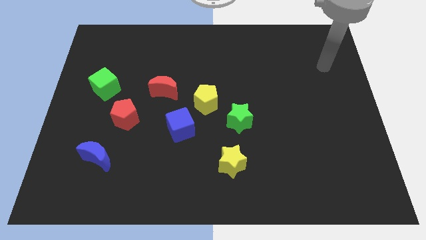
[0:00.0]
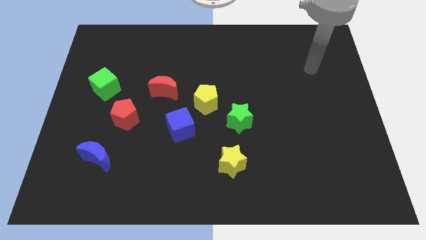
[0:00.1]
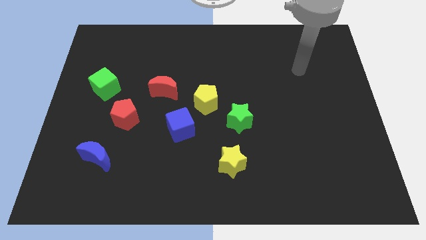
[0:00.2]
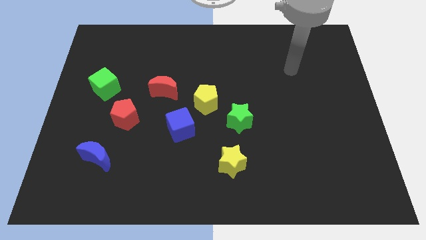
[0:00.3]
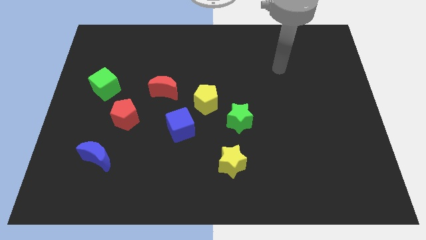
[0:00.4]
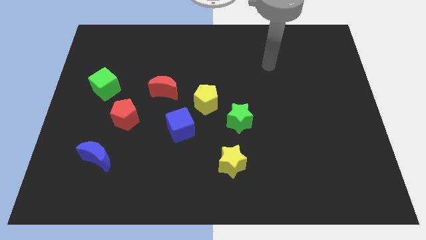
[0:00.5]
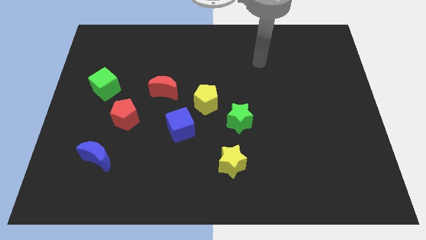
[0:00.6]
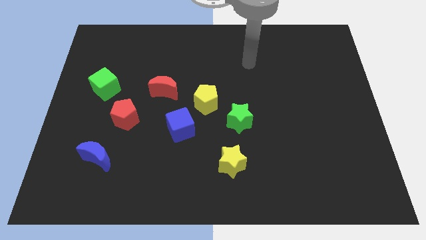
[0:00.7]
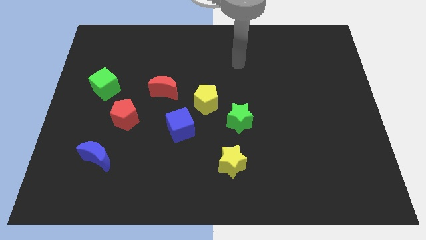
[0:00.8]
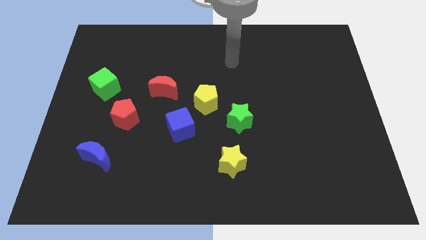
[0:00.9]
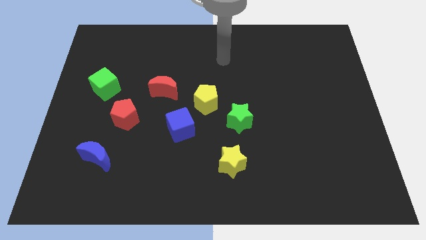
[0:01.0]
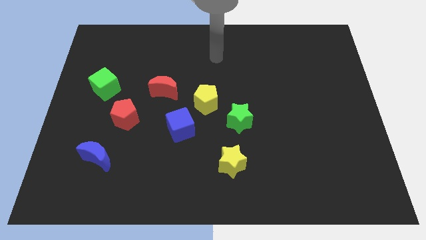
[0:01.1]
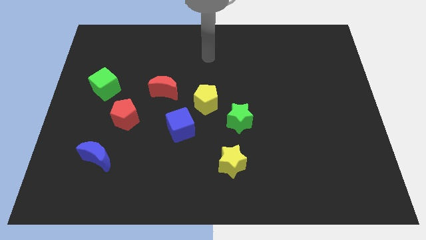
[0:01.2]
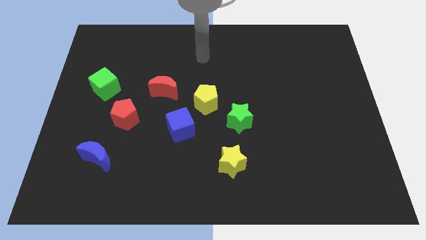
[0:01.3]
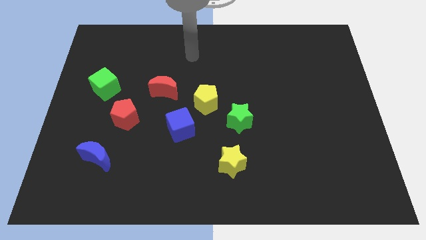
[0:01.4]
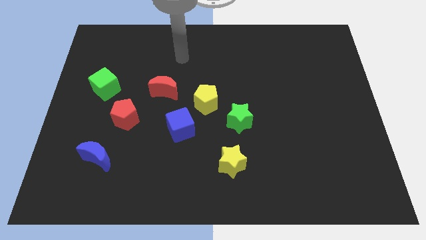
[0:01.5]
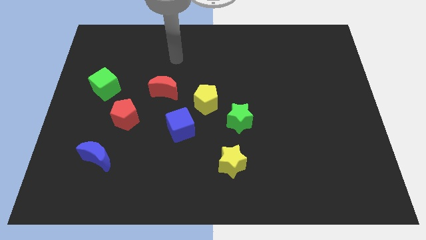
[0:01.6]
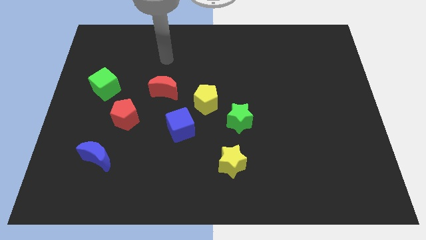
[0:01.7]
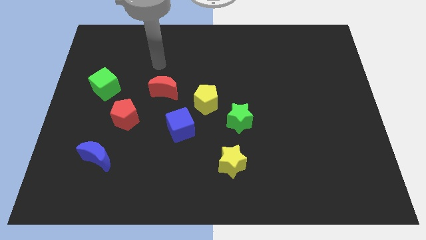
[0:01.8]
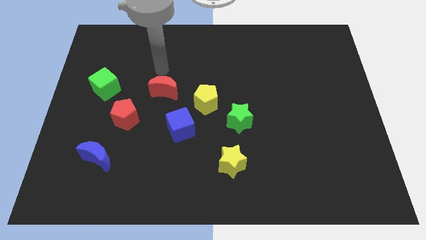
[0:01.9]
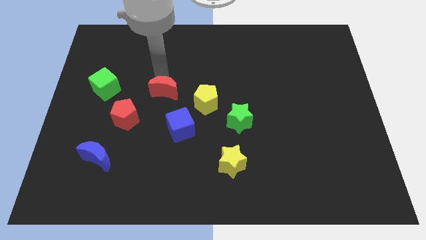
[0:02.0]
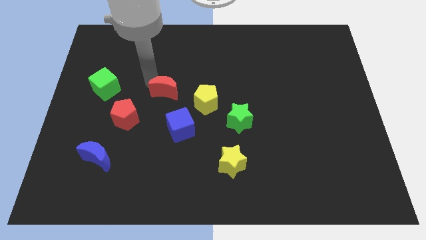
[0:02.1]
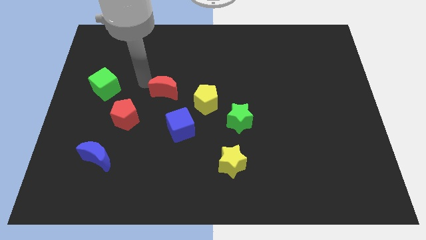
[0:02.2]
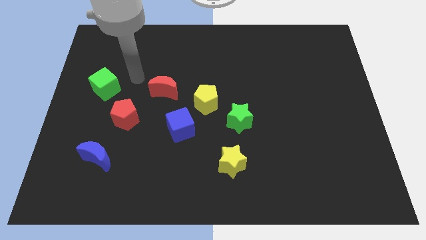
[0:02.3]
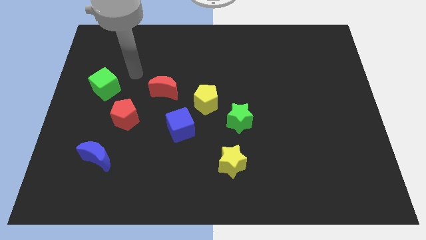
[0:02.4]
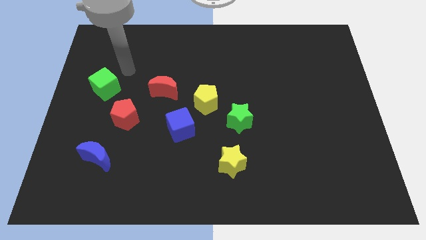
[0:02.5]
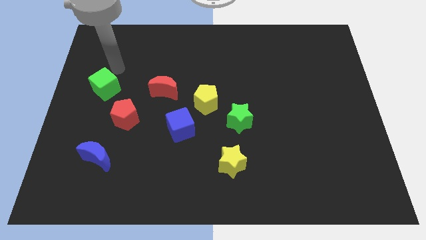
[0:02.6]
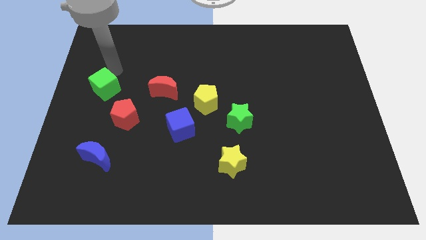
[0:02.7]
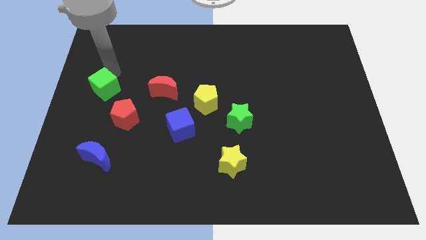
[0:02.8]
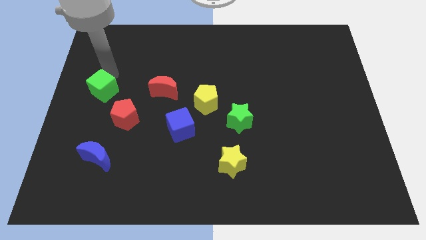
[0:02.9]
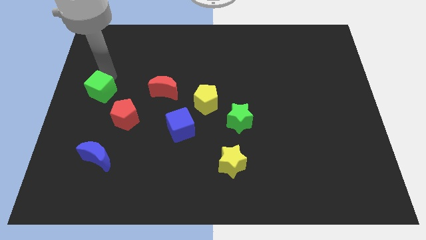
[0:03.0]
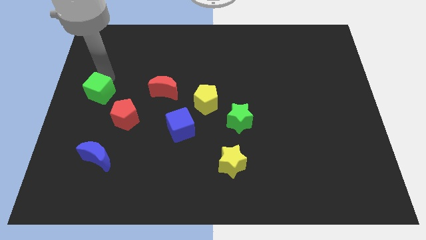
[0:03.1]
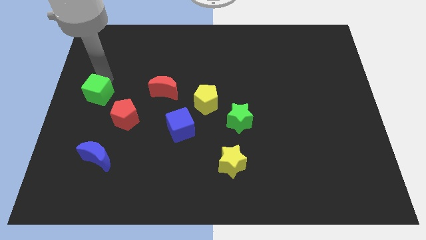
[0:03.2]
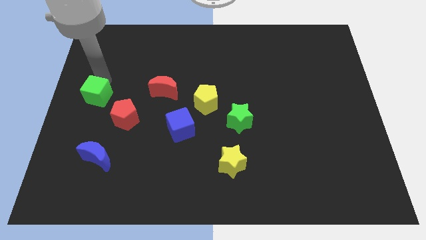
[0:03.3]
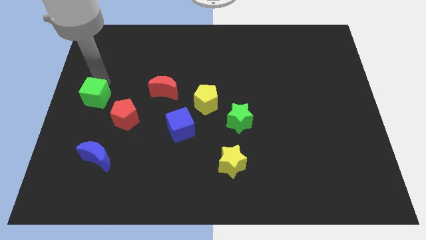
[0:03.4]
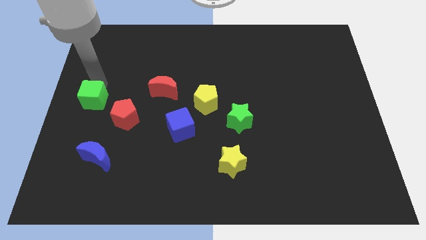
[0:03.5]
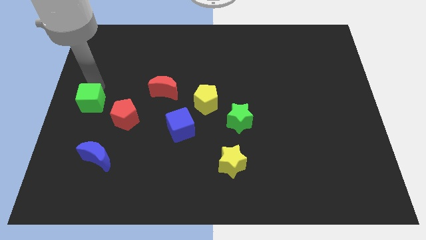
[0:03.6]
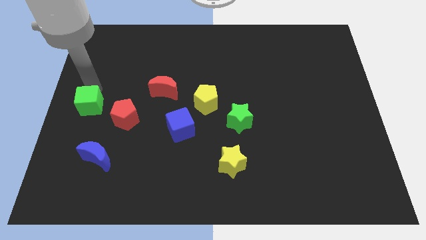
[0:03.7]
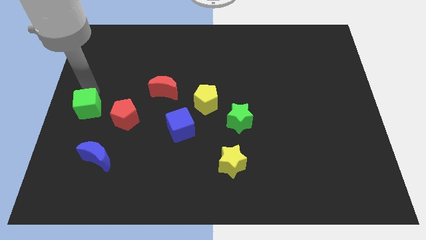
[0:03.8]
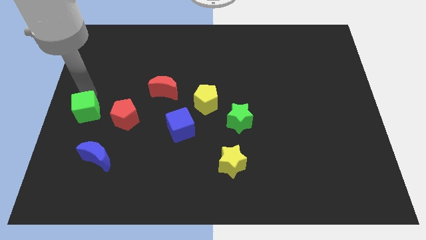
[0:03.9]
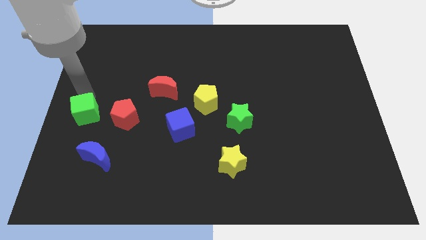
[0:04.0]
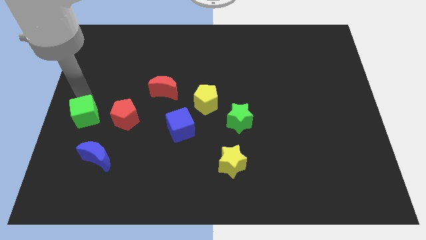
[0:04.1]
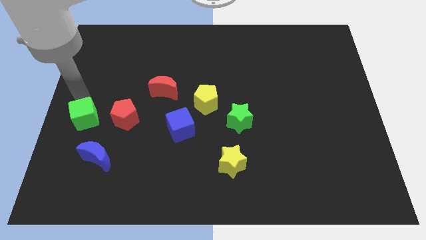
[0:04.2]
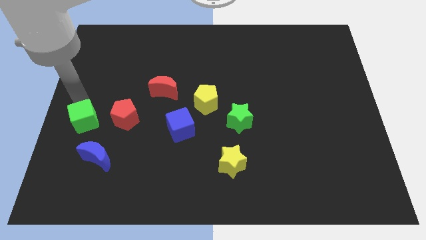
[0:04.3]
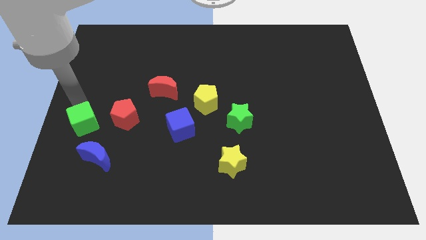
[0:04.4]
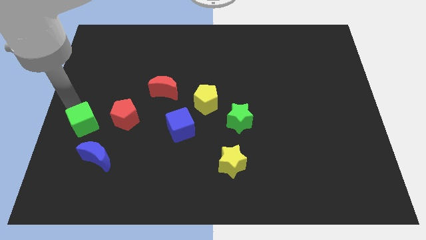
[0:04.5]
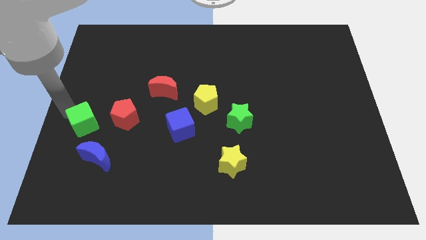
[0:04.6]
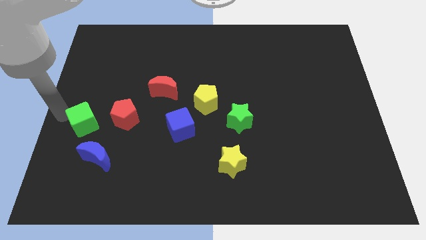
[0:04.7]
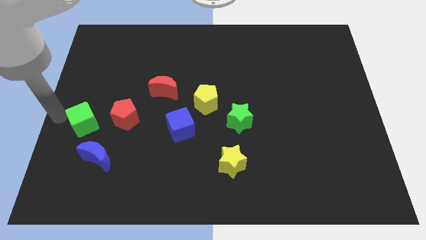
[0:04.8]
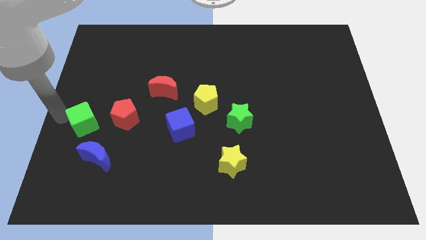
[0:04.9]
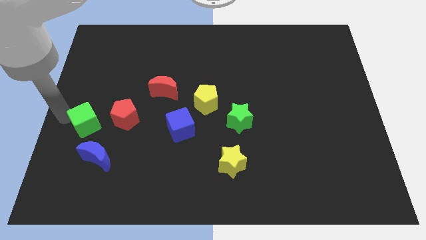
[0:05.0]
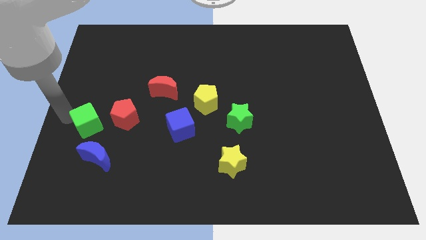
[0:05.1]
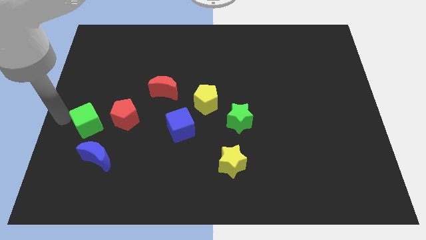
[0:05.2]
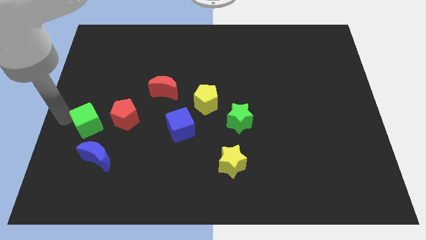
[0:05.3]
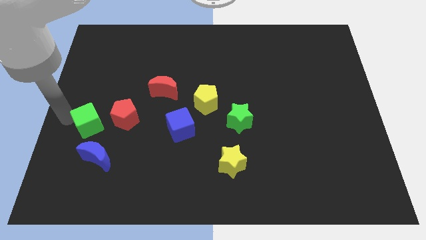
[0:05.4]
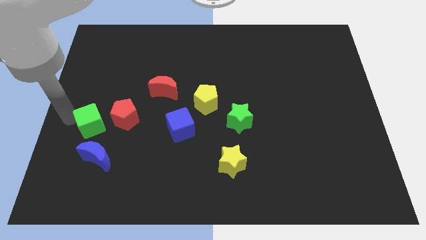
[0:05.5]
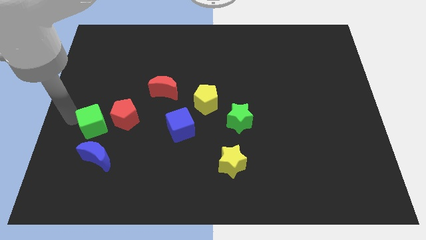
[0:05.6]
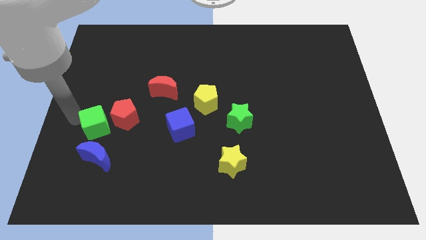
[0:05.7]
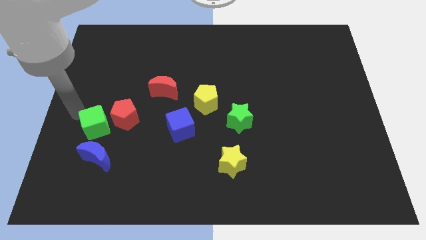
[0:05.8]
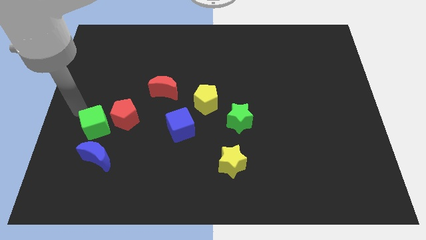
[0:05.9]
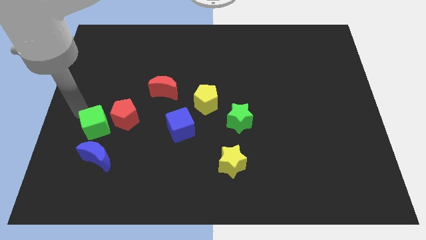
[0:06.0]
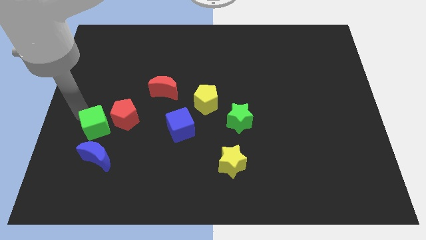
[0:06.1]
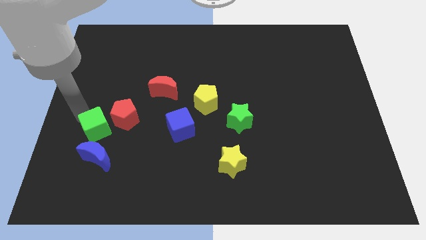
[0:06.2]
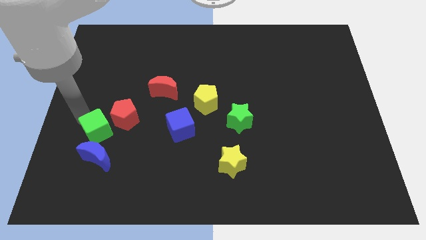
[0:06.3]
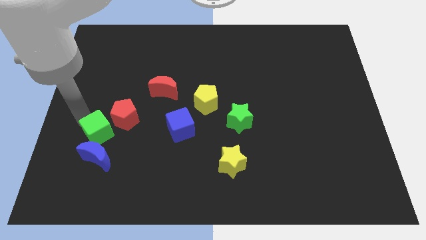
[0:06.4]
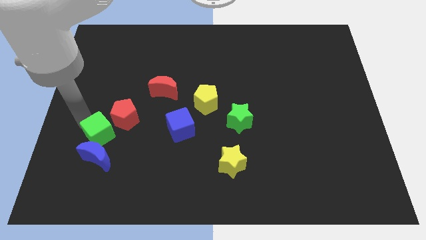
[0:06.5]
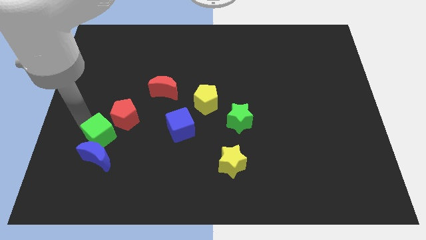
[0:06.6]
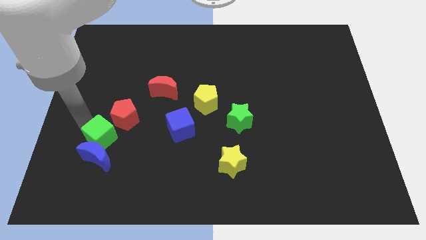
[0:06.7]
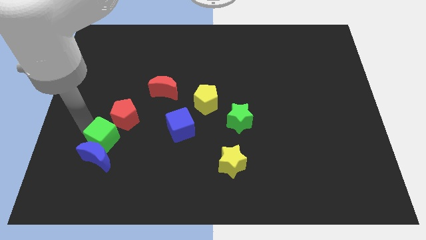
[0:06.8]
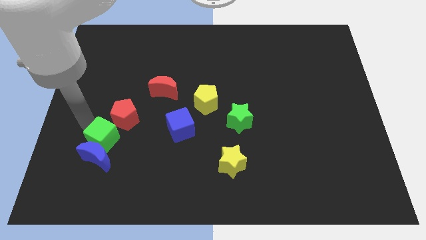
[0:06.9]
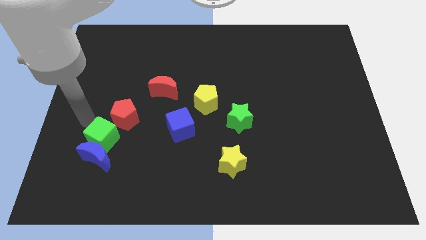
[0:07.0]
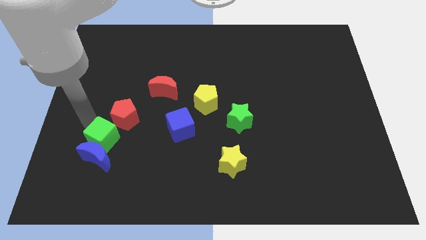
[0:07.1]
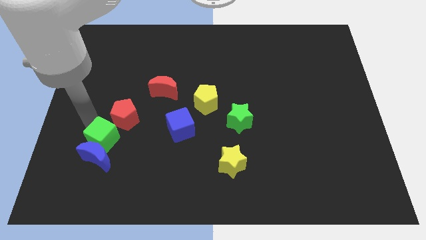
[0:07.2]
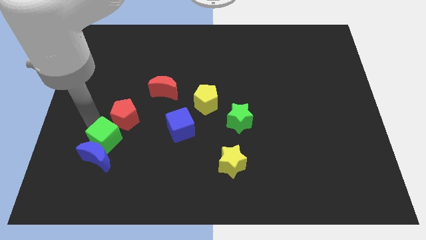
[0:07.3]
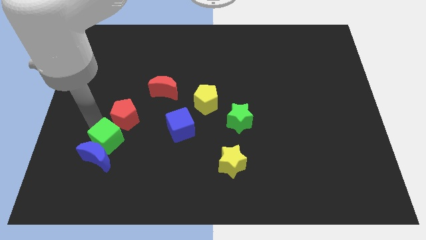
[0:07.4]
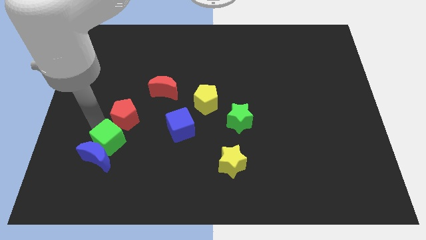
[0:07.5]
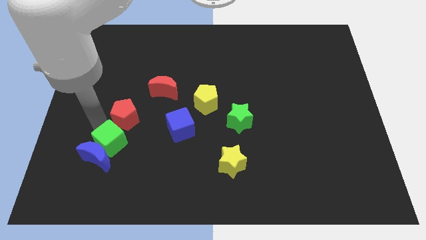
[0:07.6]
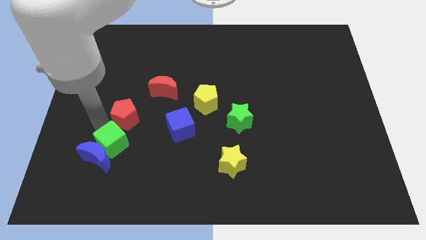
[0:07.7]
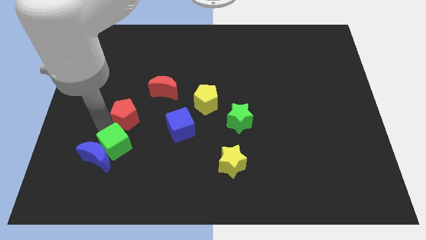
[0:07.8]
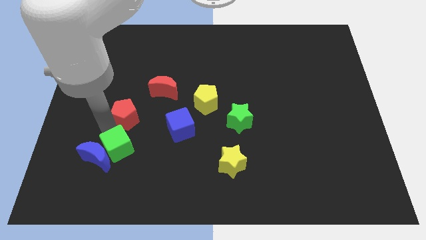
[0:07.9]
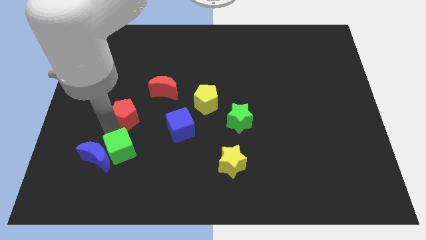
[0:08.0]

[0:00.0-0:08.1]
put the green cube diagonally down and to the right of the blue moon
